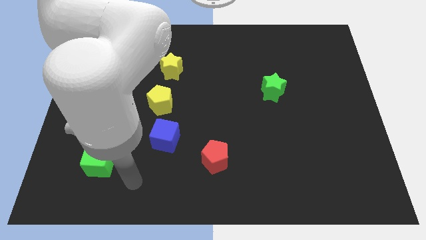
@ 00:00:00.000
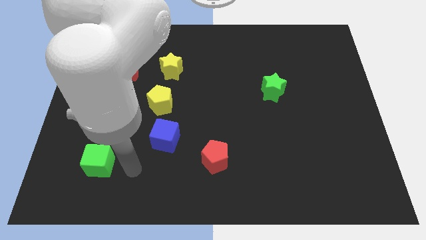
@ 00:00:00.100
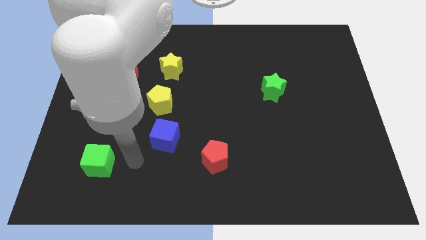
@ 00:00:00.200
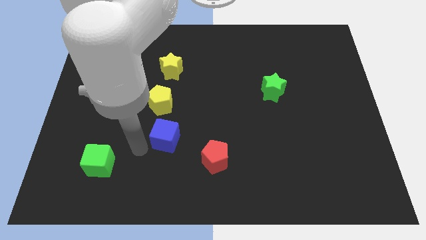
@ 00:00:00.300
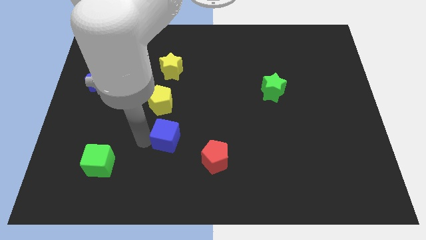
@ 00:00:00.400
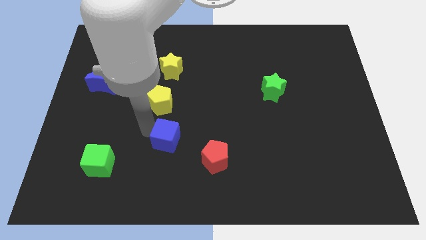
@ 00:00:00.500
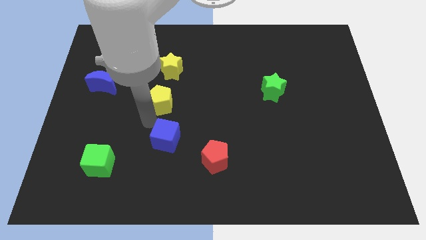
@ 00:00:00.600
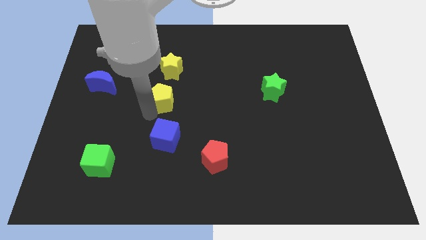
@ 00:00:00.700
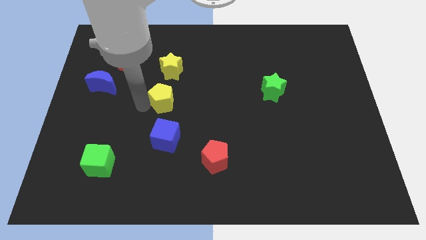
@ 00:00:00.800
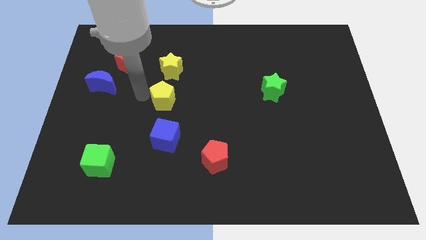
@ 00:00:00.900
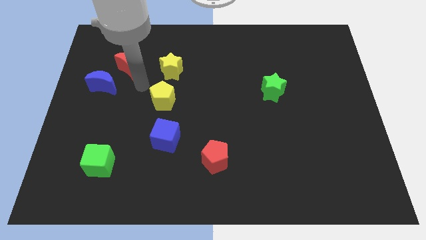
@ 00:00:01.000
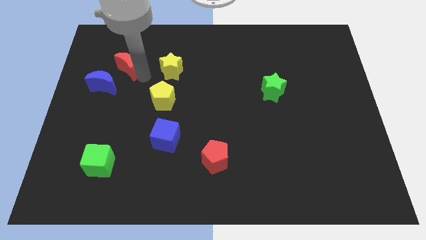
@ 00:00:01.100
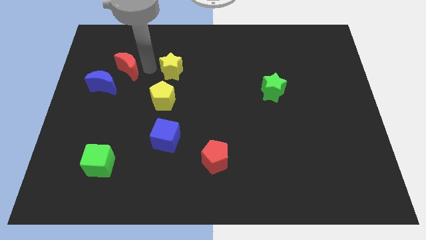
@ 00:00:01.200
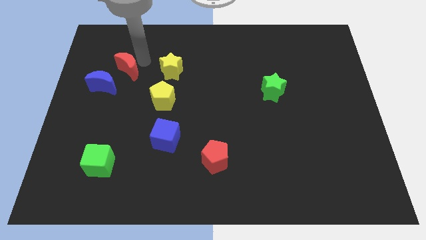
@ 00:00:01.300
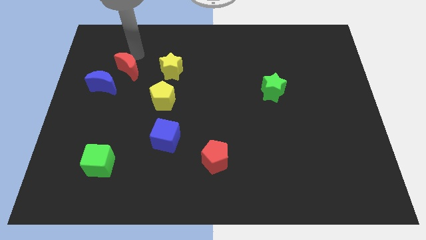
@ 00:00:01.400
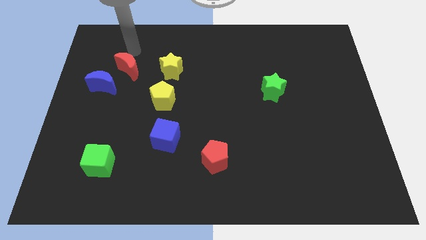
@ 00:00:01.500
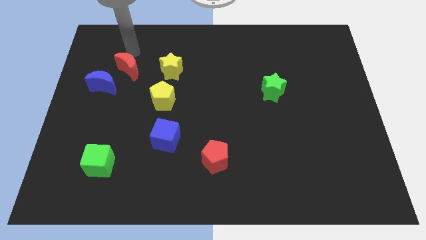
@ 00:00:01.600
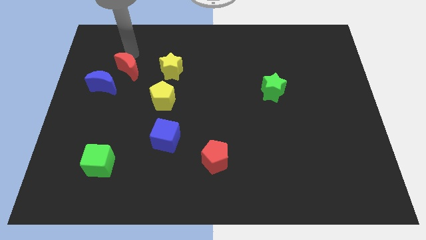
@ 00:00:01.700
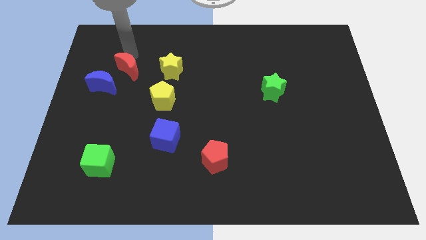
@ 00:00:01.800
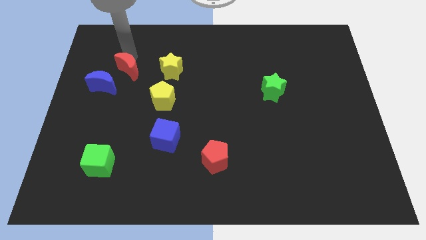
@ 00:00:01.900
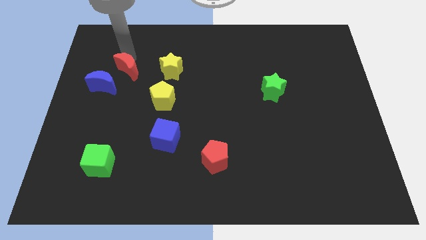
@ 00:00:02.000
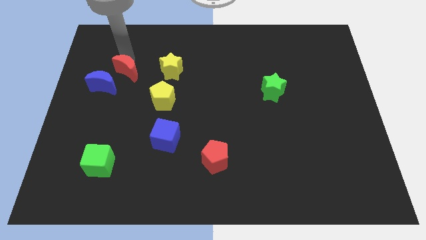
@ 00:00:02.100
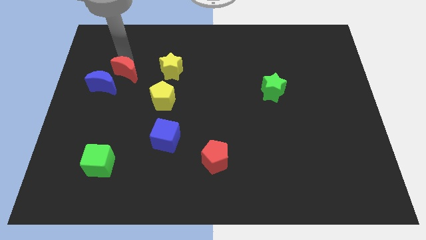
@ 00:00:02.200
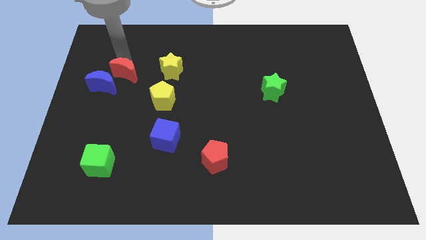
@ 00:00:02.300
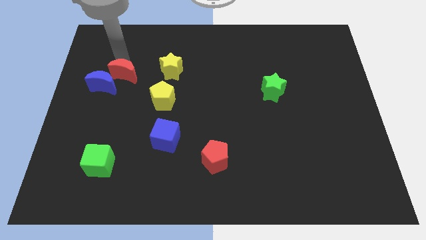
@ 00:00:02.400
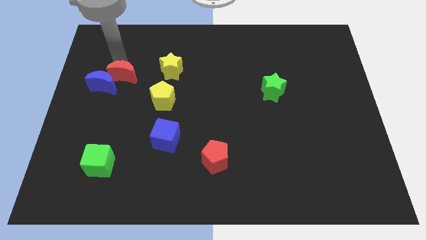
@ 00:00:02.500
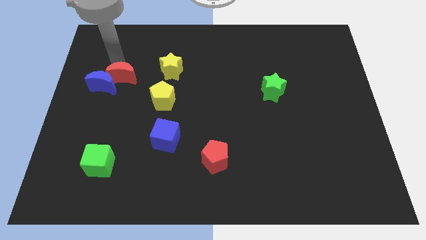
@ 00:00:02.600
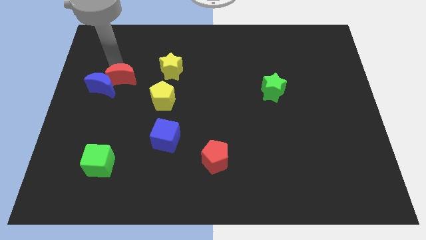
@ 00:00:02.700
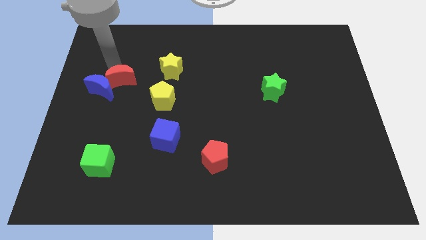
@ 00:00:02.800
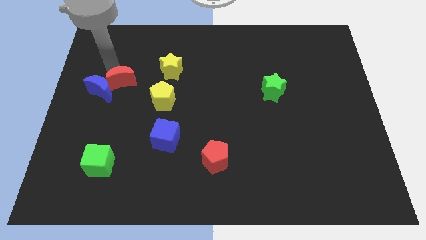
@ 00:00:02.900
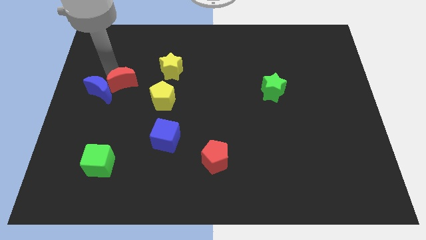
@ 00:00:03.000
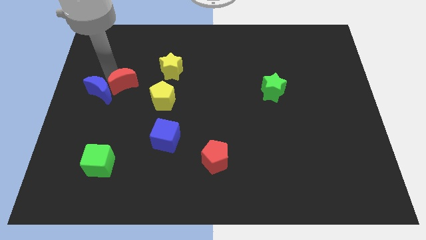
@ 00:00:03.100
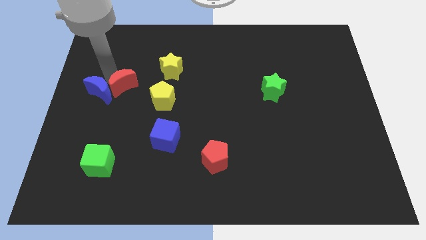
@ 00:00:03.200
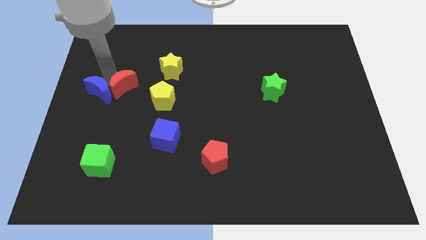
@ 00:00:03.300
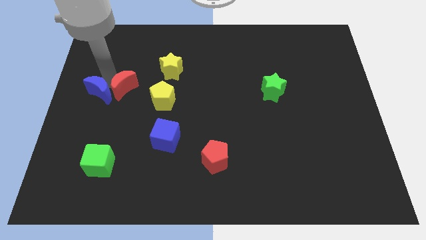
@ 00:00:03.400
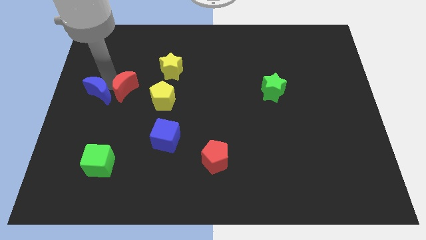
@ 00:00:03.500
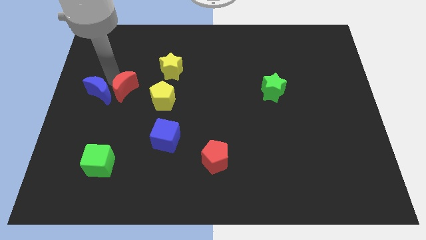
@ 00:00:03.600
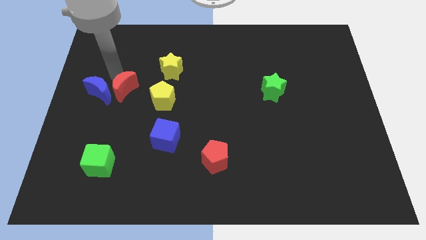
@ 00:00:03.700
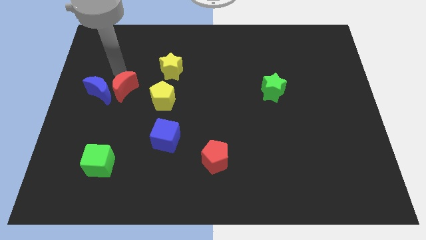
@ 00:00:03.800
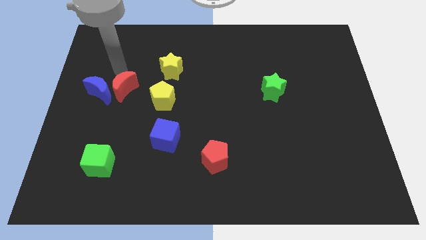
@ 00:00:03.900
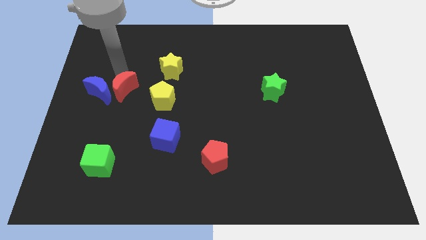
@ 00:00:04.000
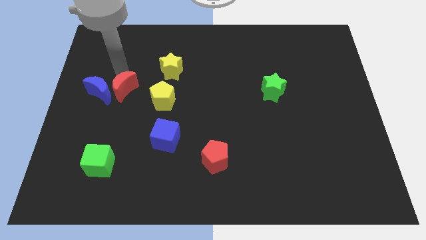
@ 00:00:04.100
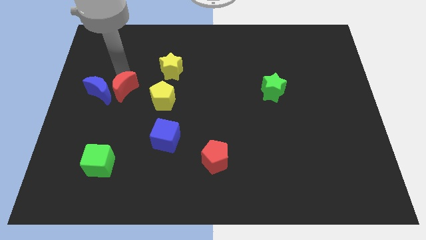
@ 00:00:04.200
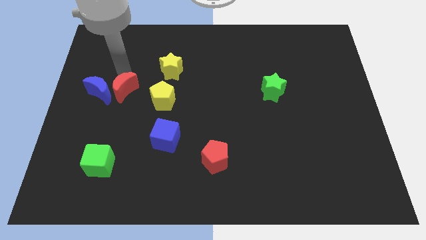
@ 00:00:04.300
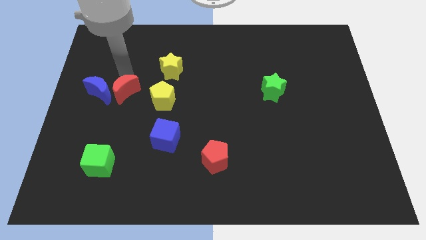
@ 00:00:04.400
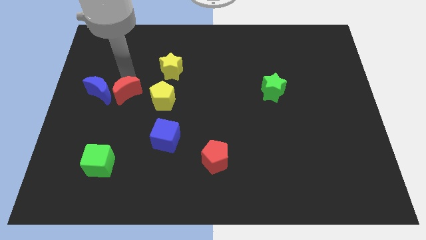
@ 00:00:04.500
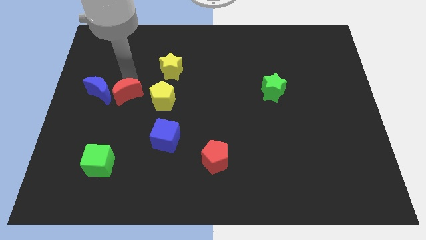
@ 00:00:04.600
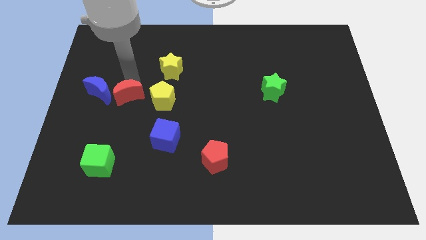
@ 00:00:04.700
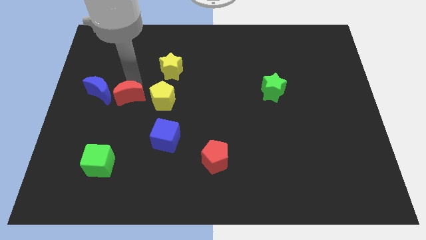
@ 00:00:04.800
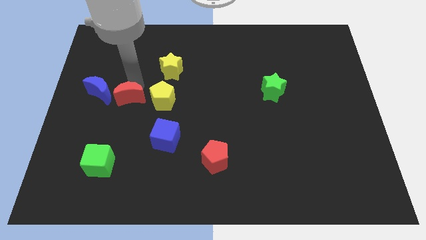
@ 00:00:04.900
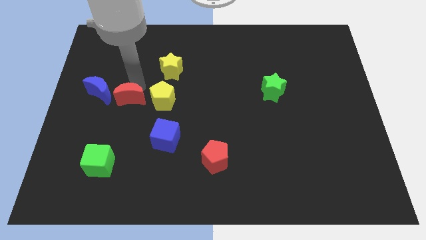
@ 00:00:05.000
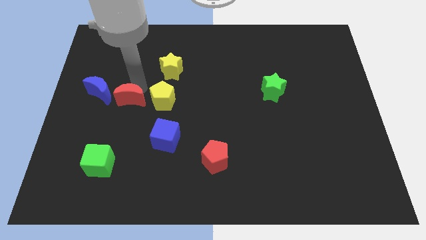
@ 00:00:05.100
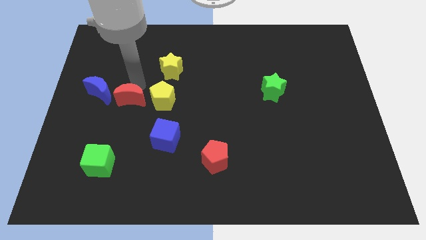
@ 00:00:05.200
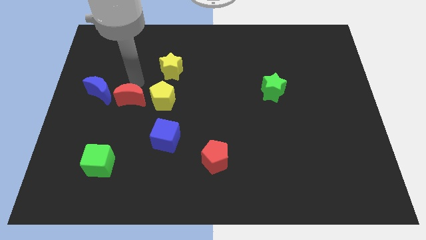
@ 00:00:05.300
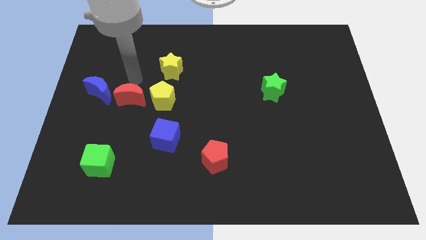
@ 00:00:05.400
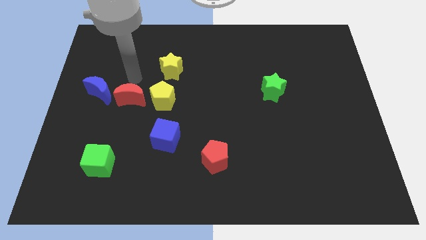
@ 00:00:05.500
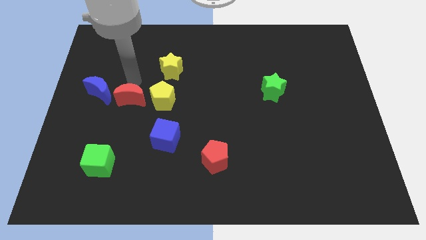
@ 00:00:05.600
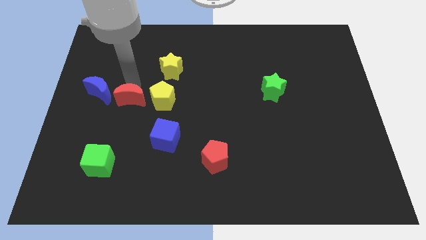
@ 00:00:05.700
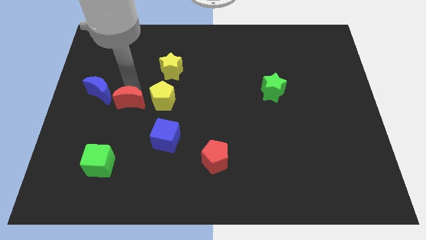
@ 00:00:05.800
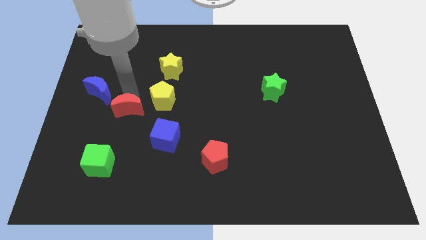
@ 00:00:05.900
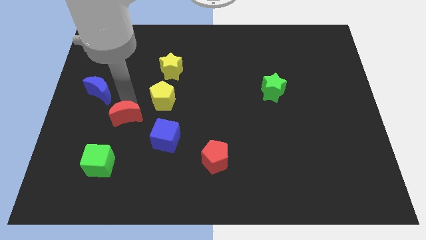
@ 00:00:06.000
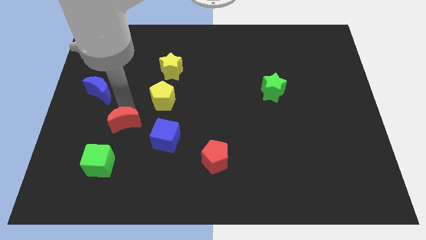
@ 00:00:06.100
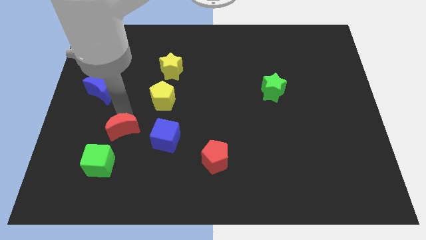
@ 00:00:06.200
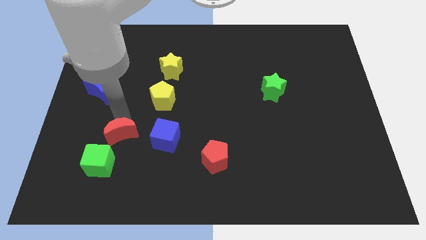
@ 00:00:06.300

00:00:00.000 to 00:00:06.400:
push the red moon down

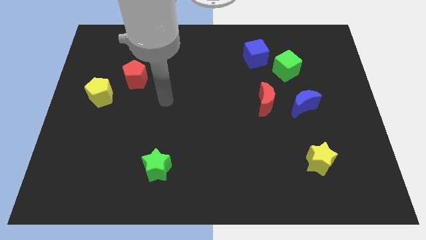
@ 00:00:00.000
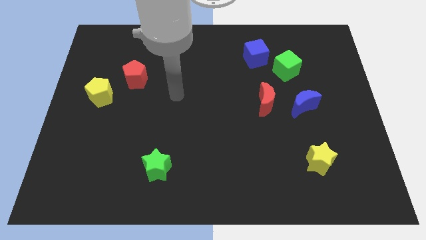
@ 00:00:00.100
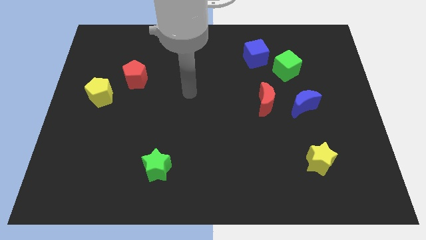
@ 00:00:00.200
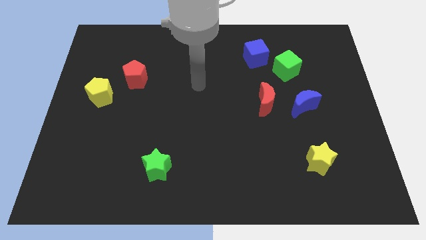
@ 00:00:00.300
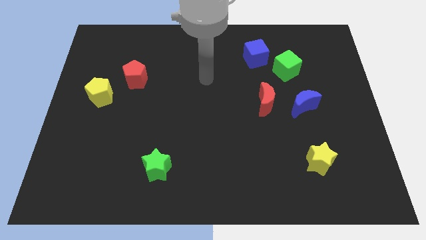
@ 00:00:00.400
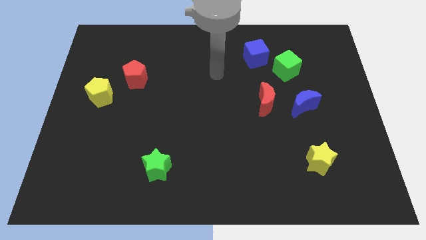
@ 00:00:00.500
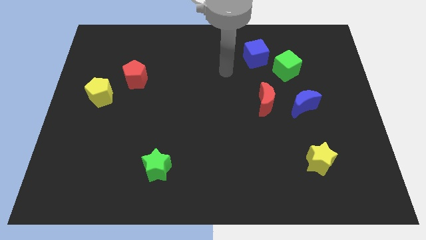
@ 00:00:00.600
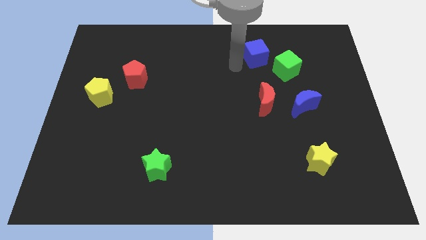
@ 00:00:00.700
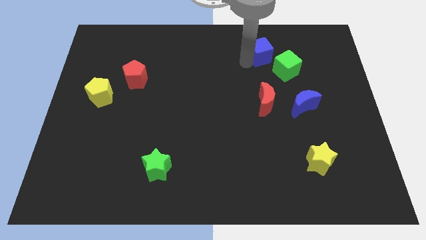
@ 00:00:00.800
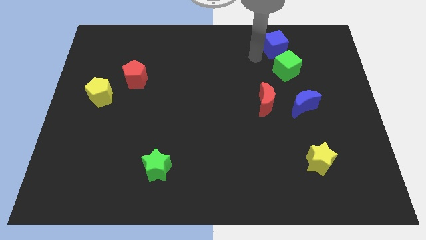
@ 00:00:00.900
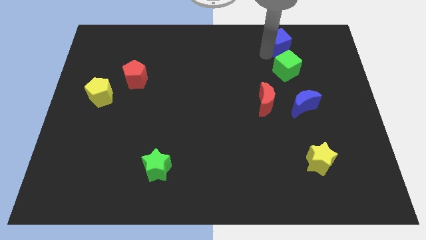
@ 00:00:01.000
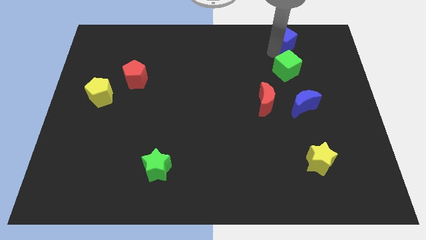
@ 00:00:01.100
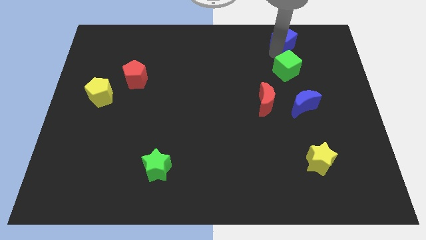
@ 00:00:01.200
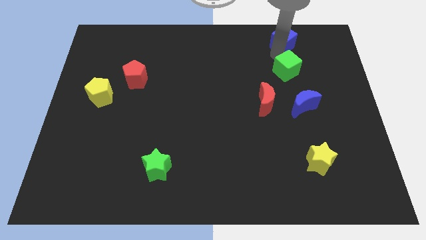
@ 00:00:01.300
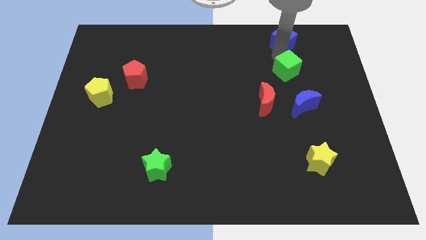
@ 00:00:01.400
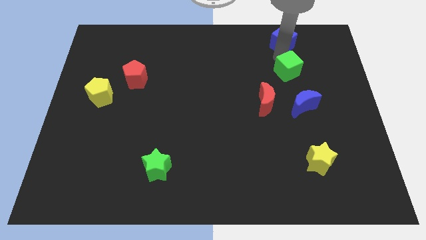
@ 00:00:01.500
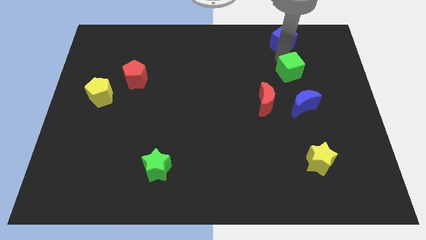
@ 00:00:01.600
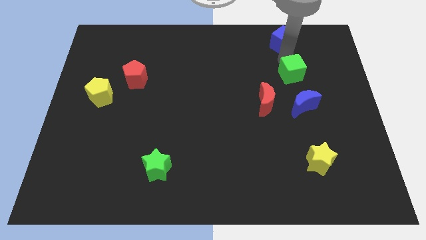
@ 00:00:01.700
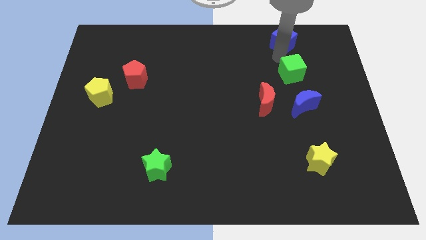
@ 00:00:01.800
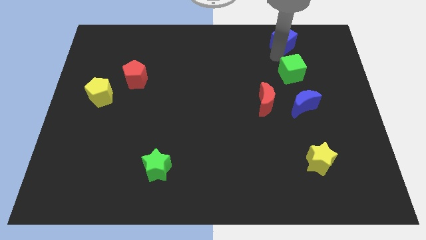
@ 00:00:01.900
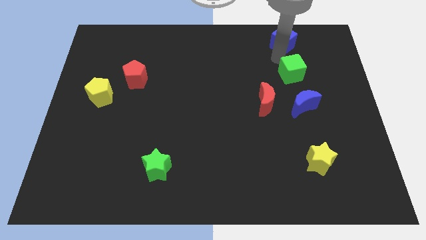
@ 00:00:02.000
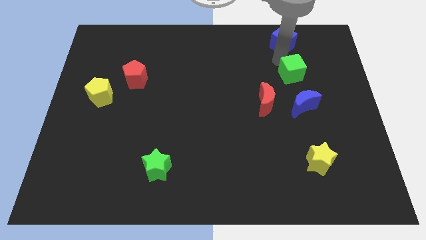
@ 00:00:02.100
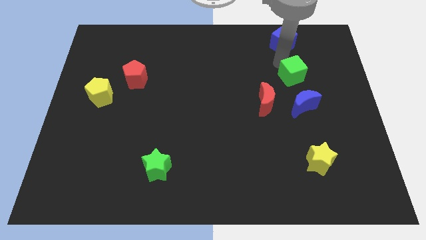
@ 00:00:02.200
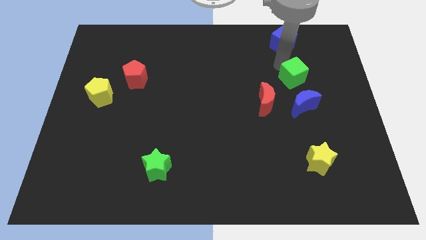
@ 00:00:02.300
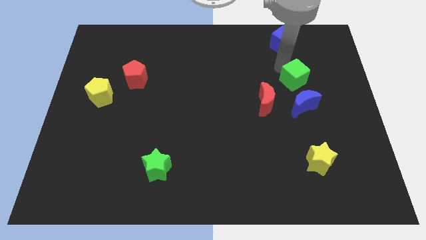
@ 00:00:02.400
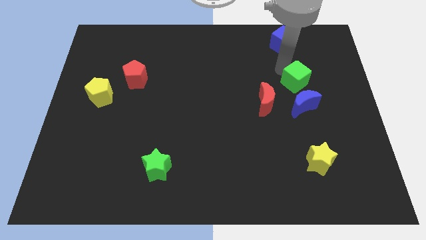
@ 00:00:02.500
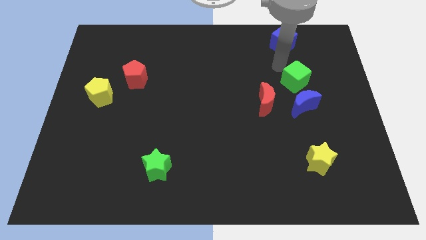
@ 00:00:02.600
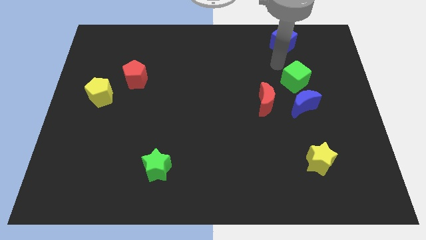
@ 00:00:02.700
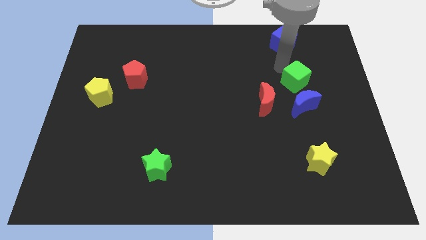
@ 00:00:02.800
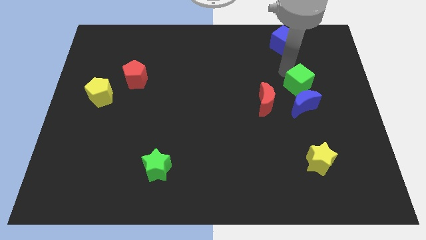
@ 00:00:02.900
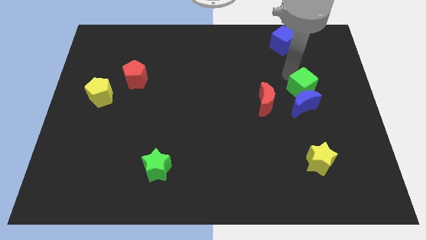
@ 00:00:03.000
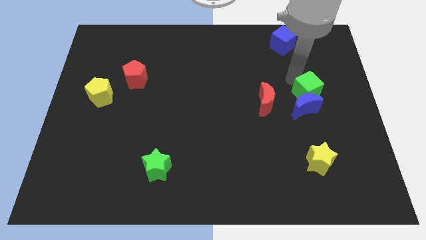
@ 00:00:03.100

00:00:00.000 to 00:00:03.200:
slightly slide the green cube downwards
